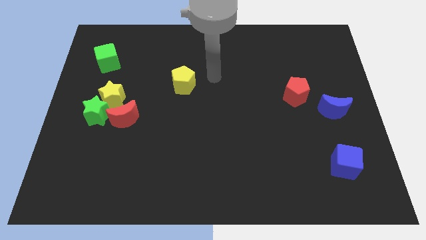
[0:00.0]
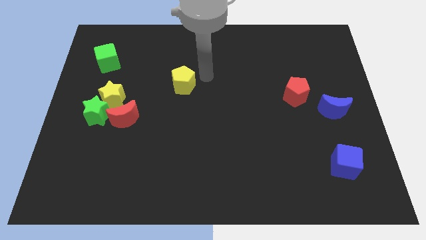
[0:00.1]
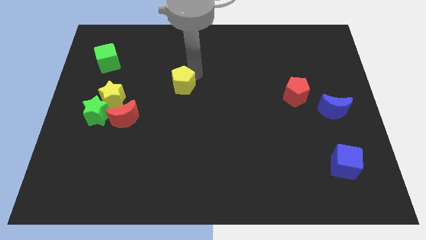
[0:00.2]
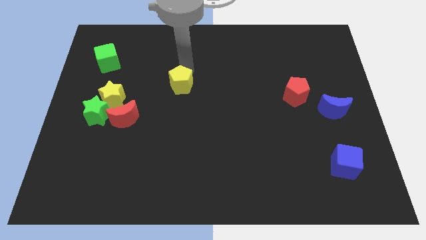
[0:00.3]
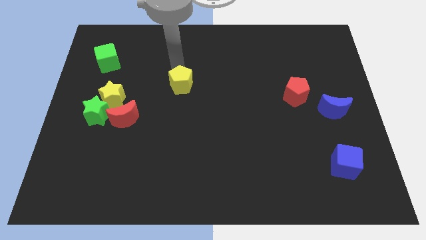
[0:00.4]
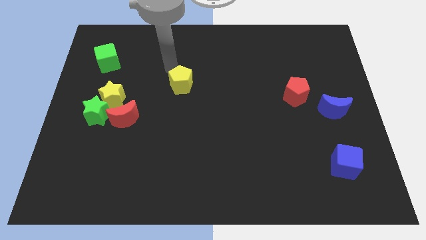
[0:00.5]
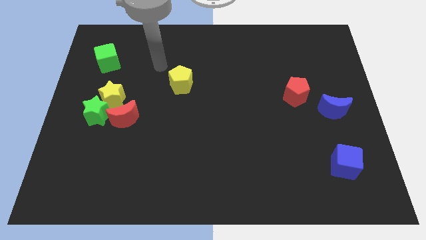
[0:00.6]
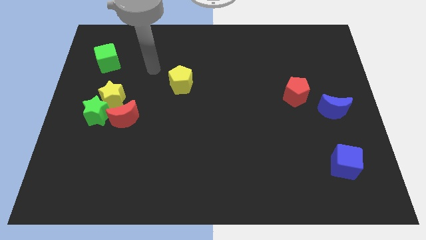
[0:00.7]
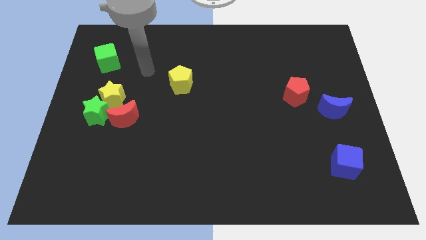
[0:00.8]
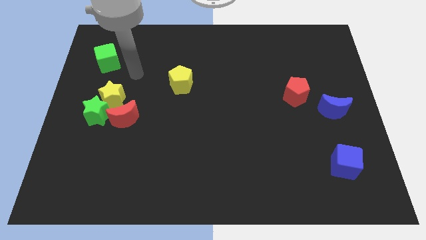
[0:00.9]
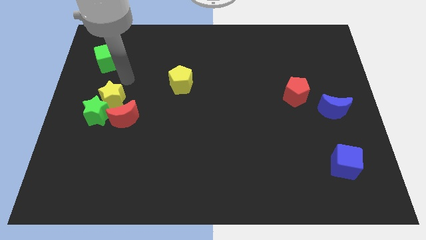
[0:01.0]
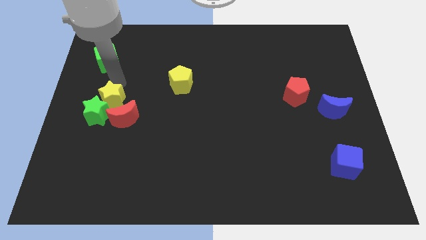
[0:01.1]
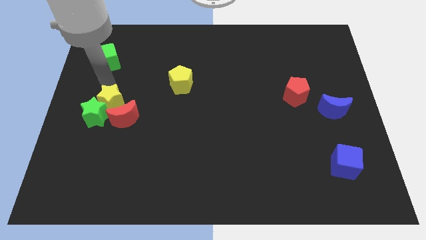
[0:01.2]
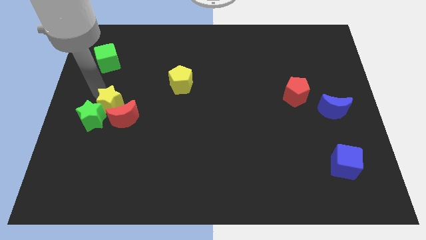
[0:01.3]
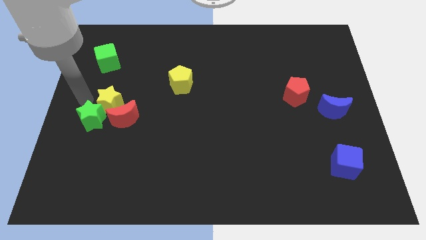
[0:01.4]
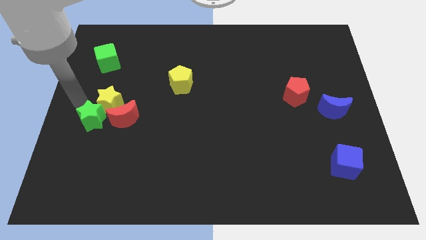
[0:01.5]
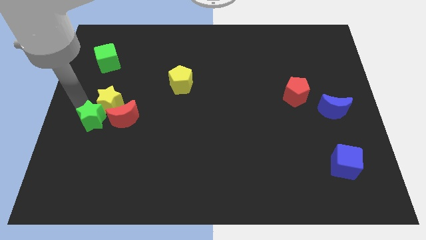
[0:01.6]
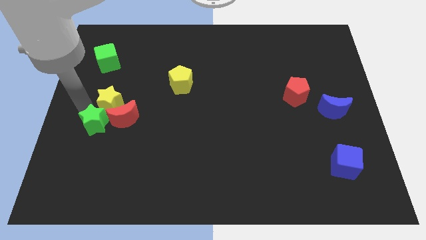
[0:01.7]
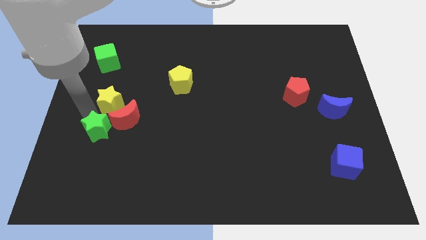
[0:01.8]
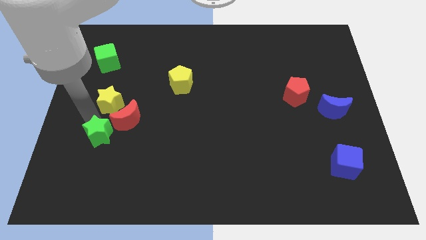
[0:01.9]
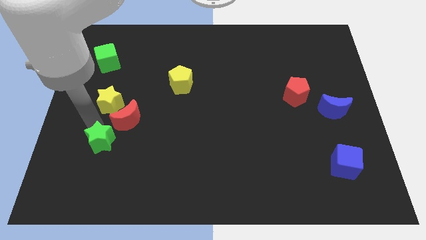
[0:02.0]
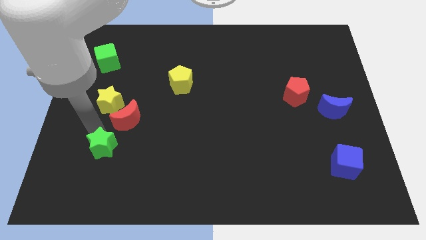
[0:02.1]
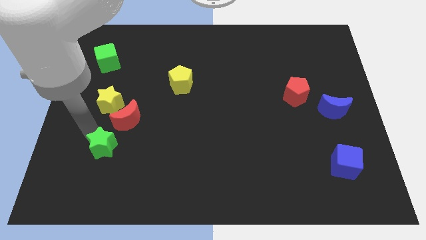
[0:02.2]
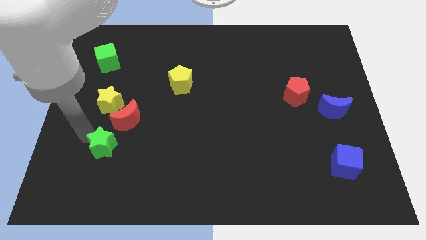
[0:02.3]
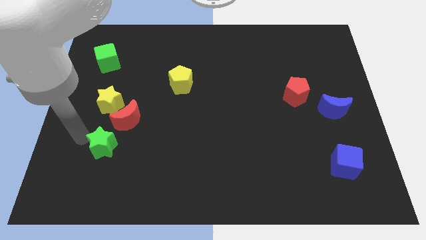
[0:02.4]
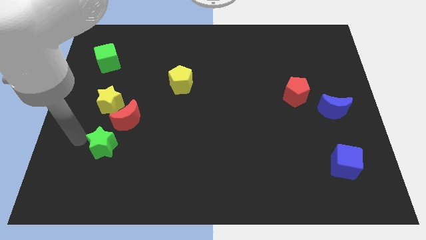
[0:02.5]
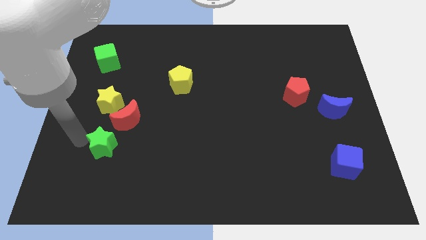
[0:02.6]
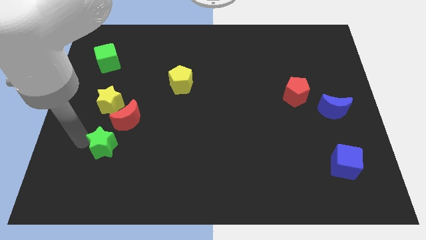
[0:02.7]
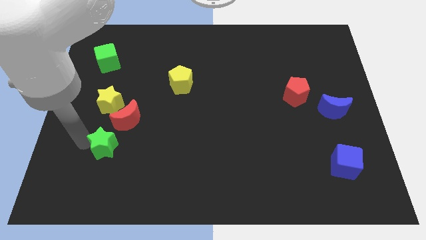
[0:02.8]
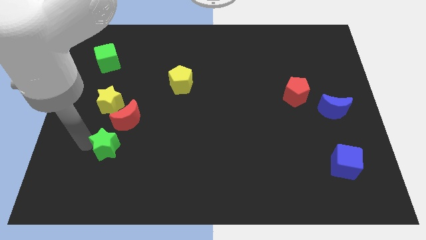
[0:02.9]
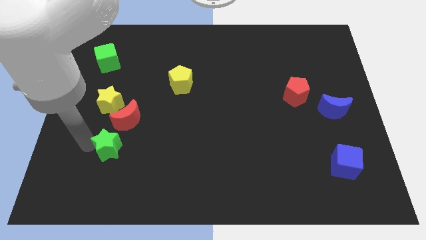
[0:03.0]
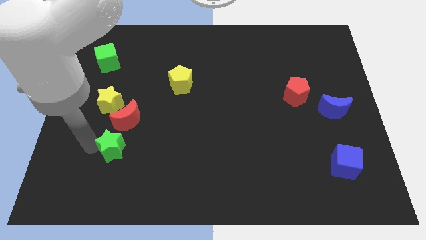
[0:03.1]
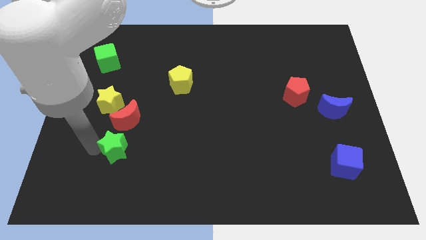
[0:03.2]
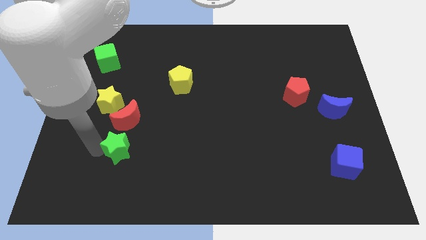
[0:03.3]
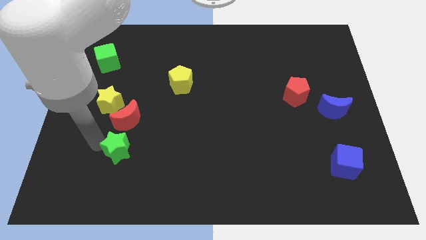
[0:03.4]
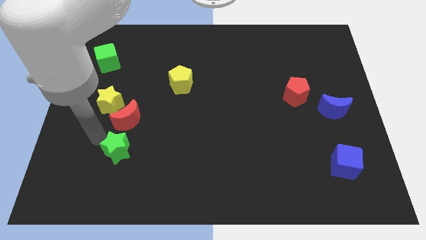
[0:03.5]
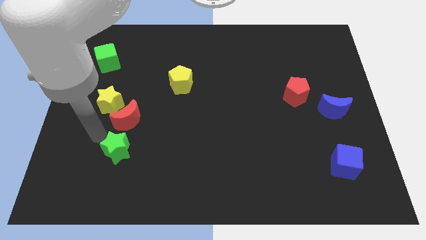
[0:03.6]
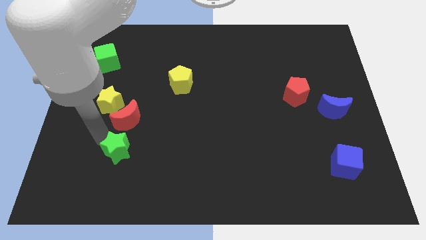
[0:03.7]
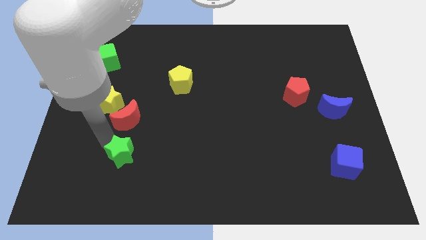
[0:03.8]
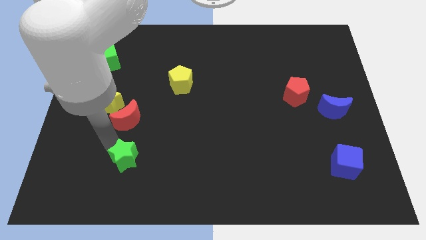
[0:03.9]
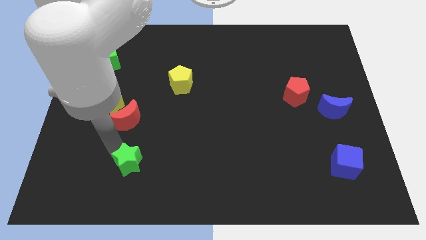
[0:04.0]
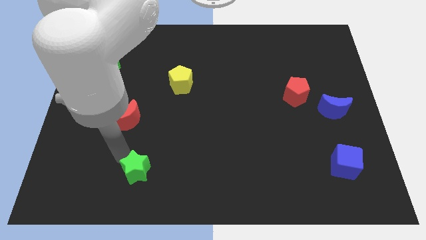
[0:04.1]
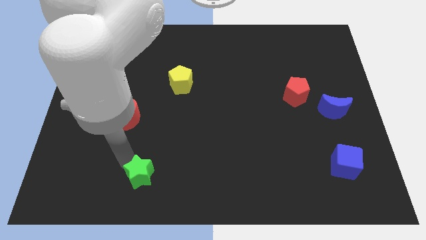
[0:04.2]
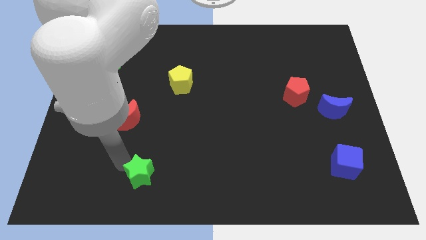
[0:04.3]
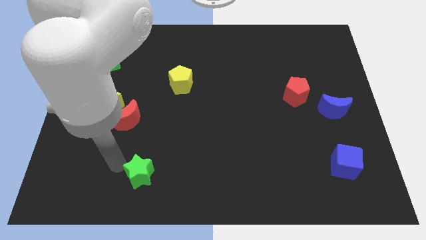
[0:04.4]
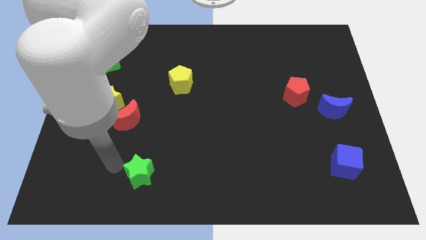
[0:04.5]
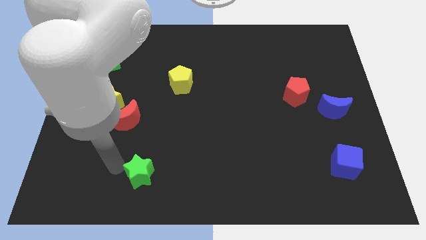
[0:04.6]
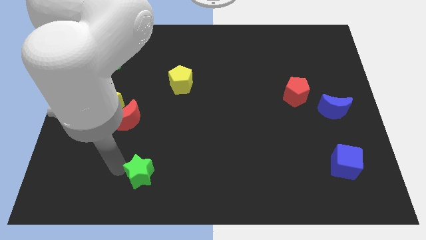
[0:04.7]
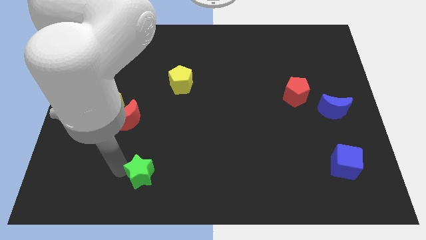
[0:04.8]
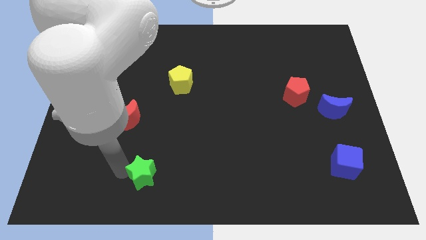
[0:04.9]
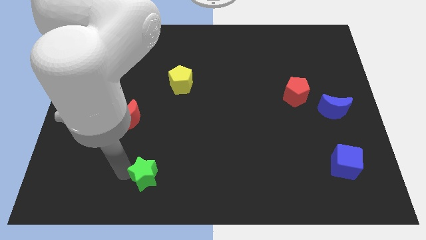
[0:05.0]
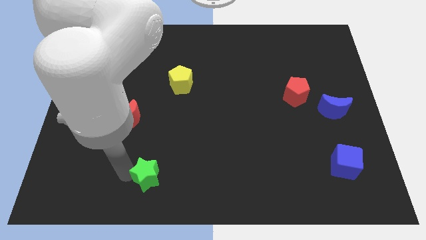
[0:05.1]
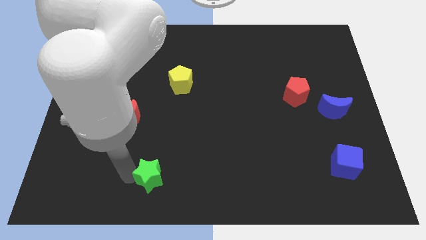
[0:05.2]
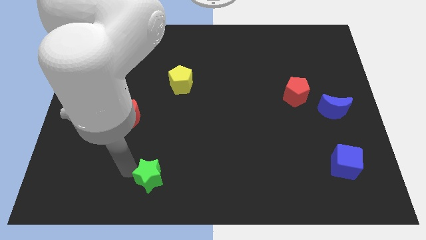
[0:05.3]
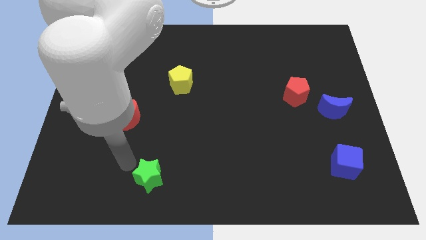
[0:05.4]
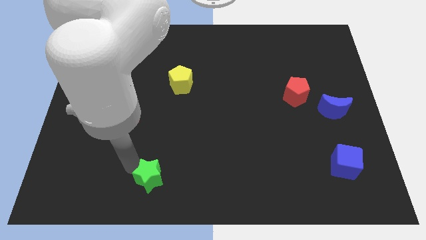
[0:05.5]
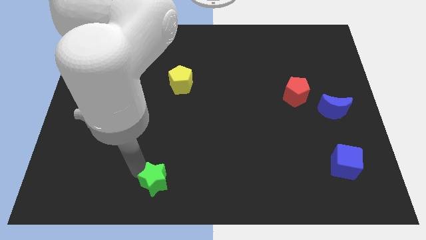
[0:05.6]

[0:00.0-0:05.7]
put the green star to the bottom

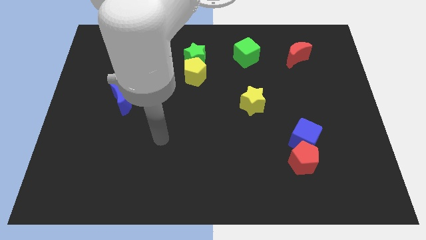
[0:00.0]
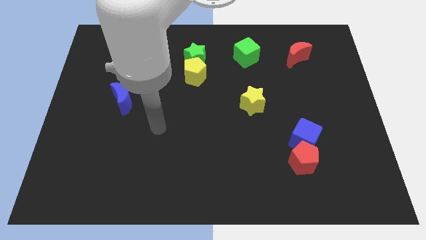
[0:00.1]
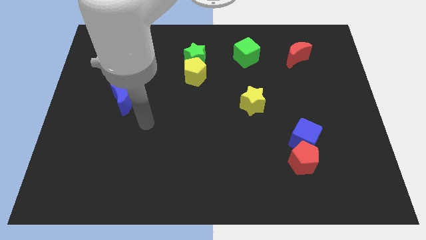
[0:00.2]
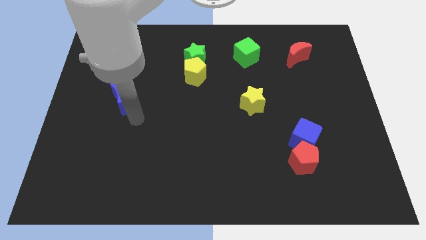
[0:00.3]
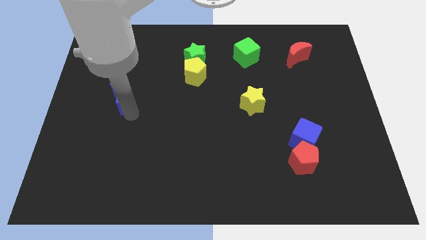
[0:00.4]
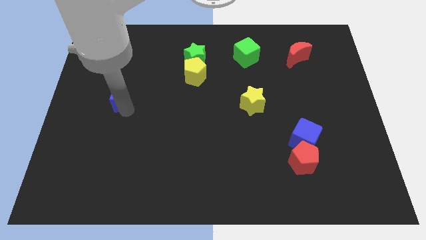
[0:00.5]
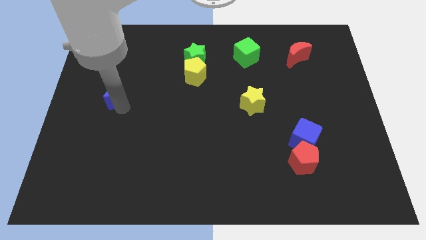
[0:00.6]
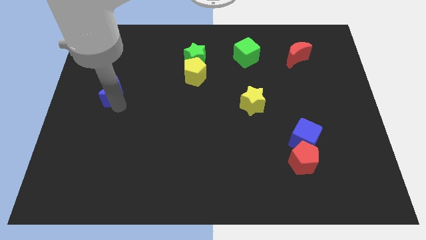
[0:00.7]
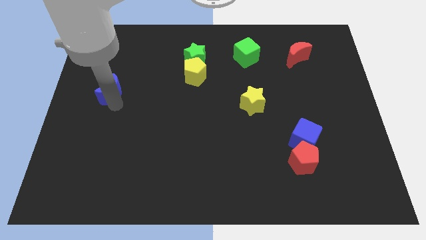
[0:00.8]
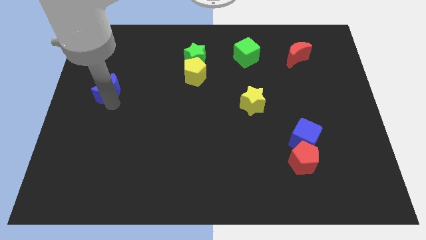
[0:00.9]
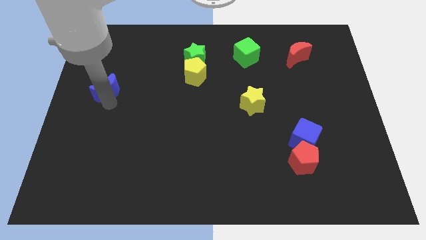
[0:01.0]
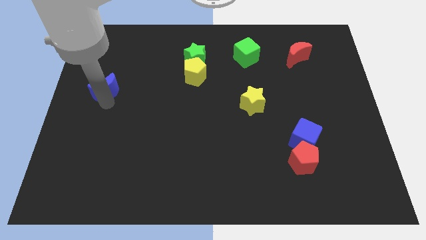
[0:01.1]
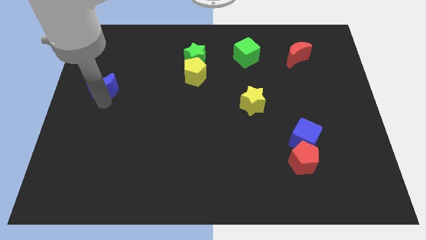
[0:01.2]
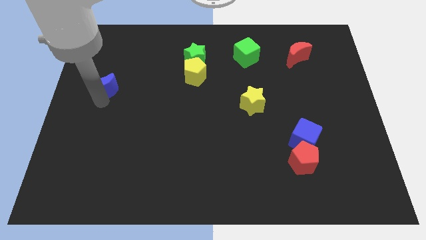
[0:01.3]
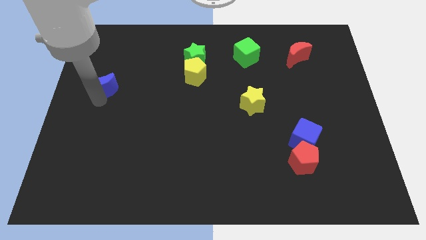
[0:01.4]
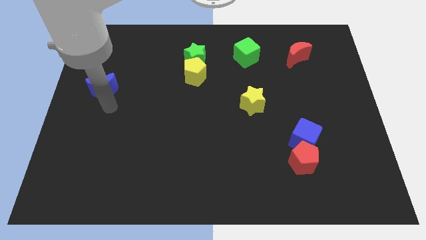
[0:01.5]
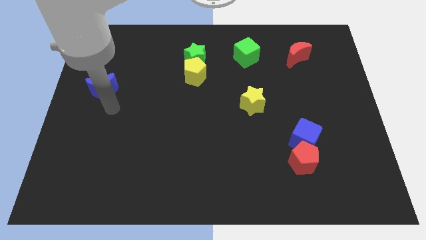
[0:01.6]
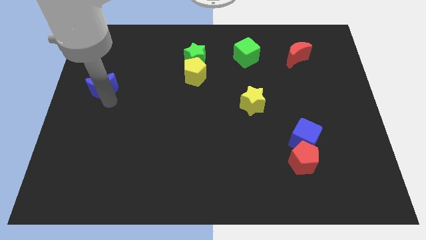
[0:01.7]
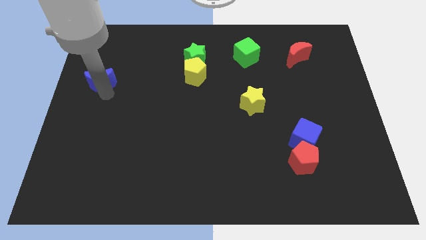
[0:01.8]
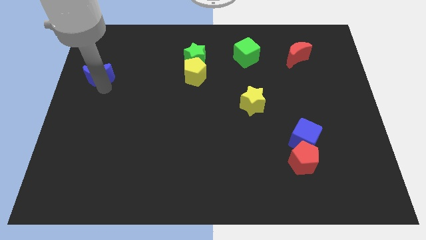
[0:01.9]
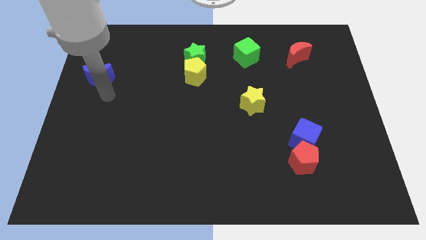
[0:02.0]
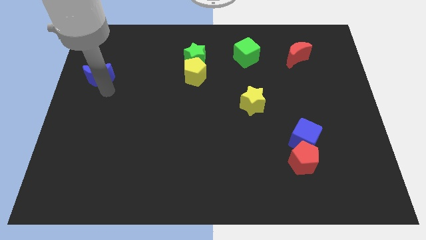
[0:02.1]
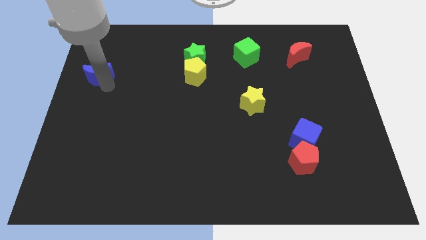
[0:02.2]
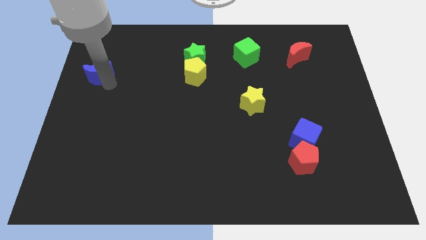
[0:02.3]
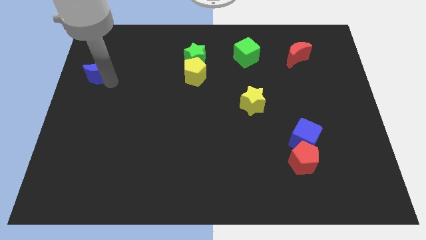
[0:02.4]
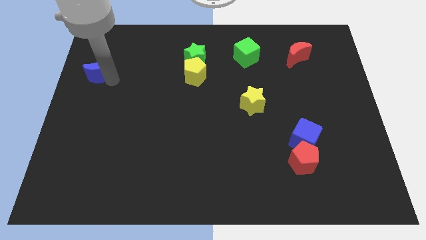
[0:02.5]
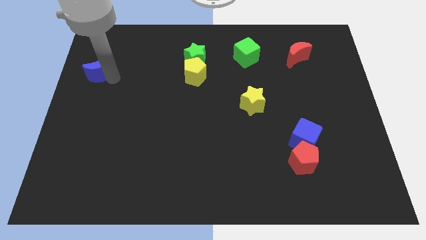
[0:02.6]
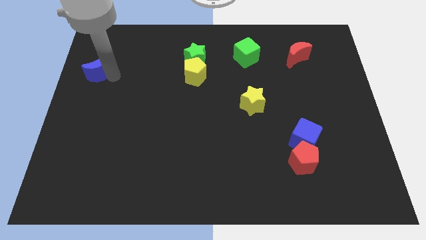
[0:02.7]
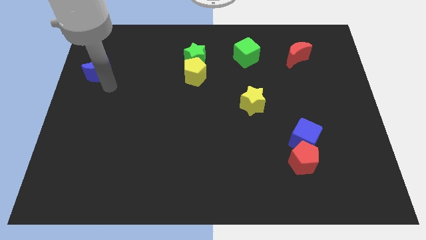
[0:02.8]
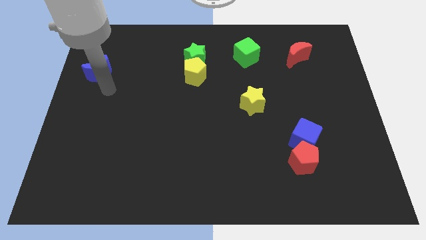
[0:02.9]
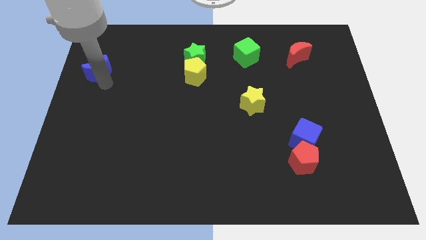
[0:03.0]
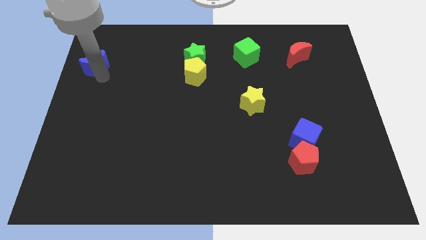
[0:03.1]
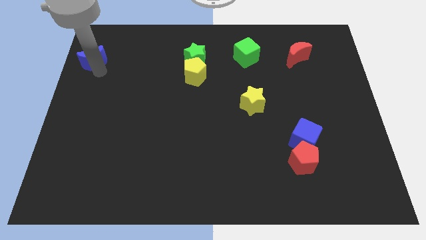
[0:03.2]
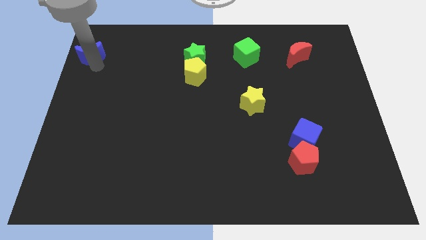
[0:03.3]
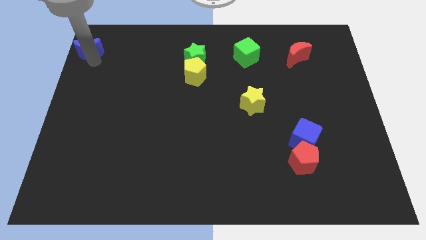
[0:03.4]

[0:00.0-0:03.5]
push the blue moon to the top left
